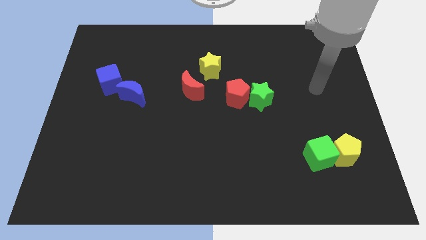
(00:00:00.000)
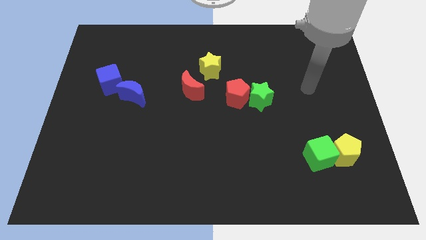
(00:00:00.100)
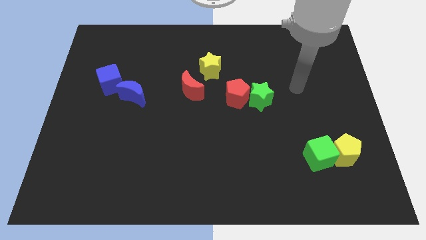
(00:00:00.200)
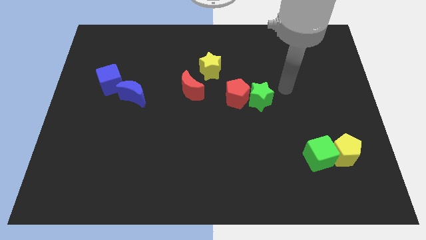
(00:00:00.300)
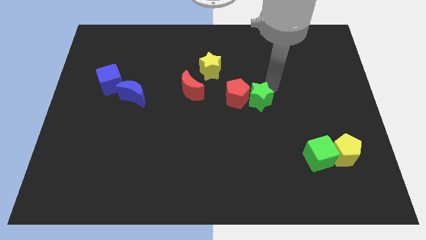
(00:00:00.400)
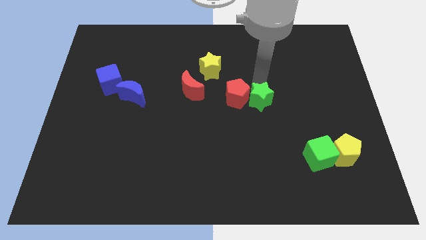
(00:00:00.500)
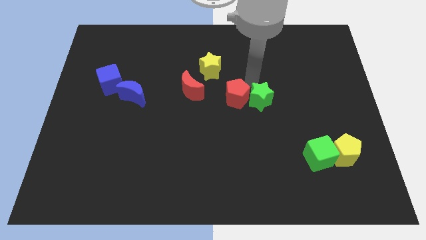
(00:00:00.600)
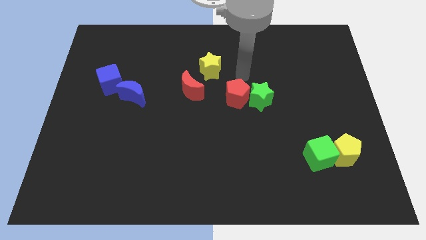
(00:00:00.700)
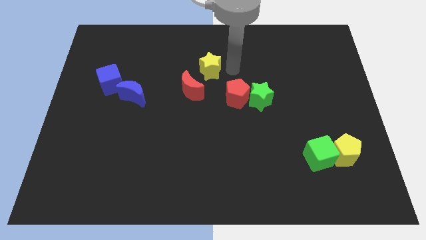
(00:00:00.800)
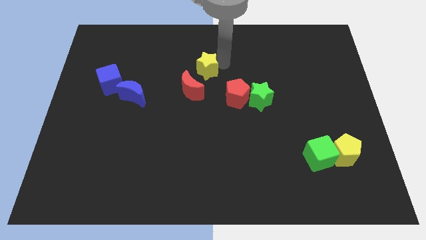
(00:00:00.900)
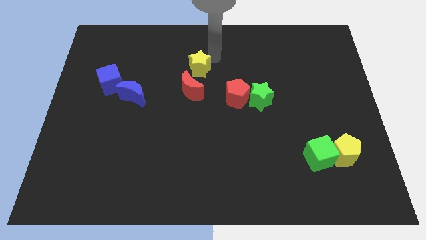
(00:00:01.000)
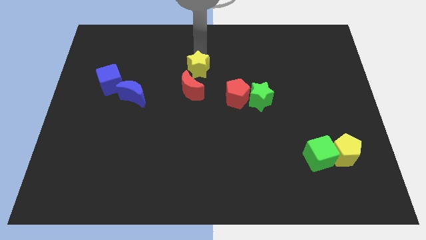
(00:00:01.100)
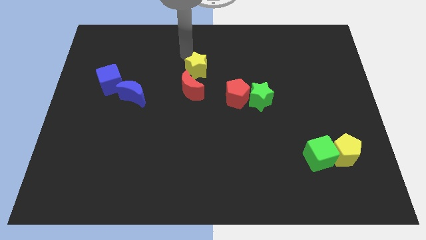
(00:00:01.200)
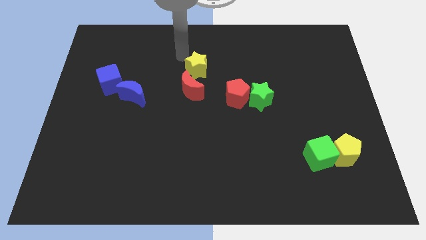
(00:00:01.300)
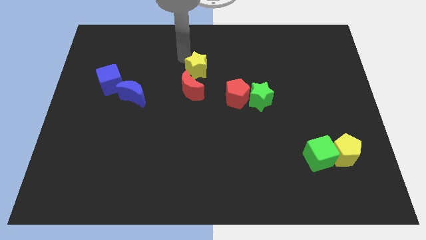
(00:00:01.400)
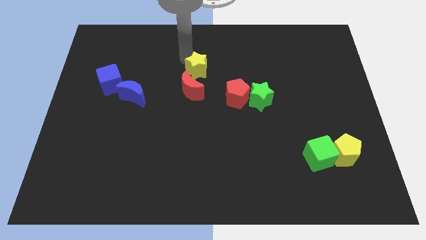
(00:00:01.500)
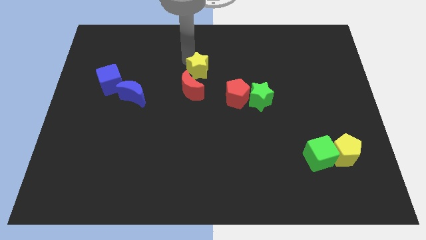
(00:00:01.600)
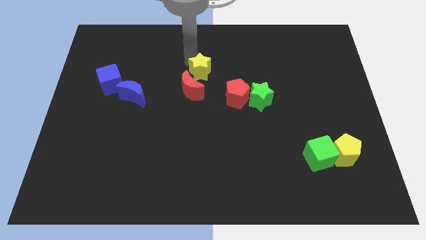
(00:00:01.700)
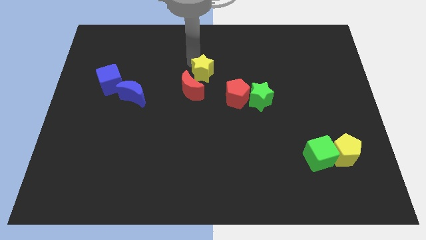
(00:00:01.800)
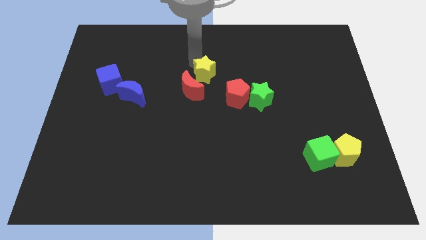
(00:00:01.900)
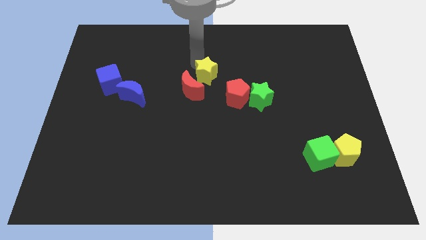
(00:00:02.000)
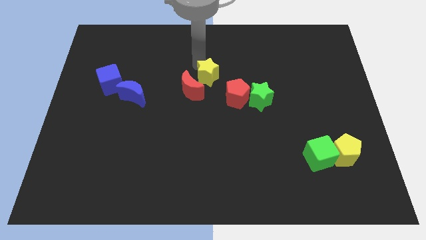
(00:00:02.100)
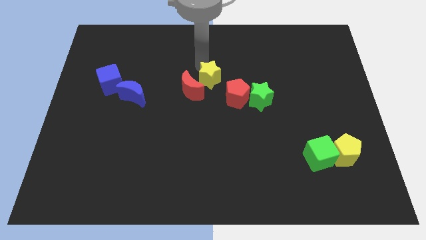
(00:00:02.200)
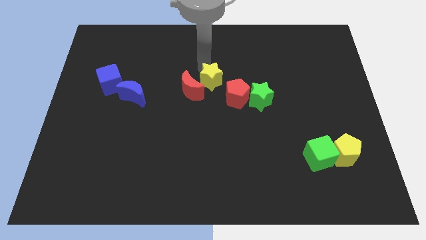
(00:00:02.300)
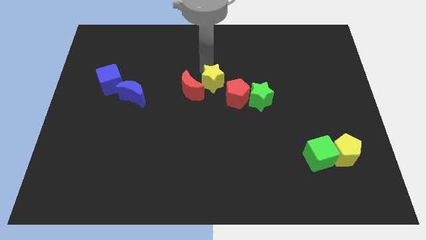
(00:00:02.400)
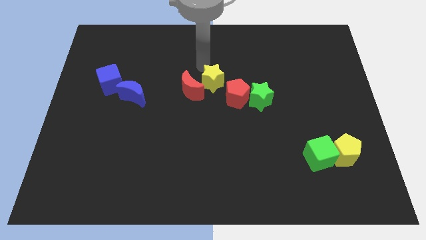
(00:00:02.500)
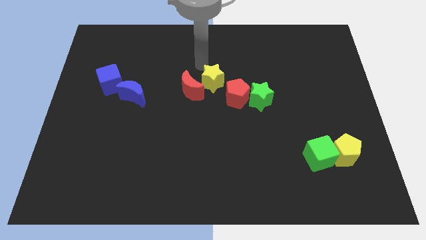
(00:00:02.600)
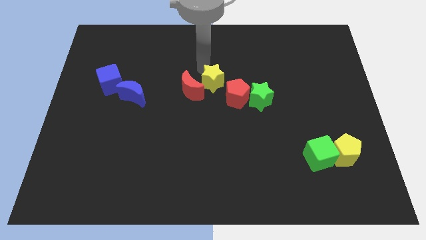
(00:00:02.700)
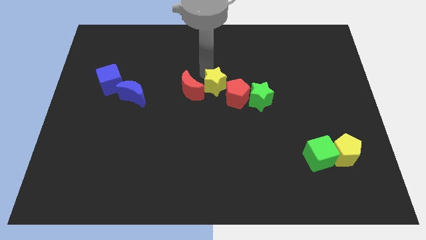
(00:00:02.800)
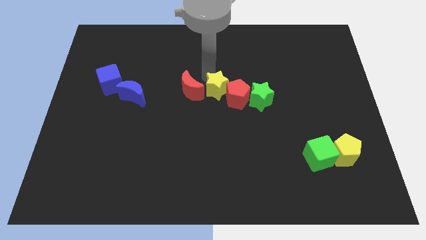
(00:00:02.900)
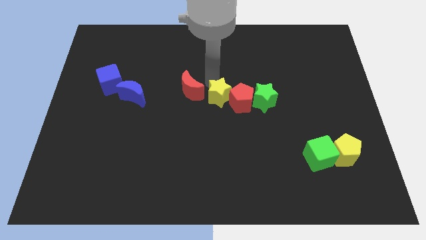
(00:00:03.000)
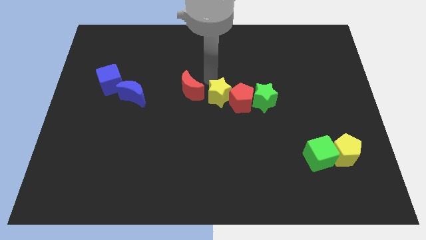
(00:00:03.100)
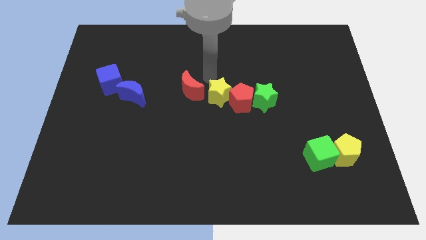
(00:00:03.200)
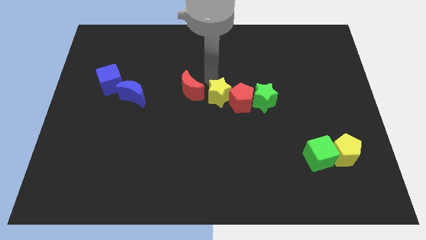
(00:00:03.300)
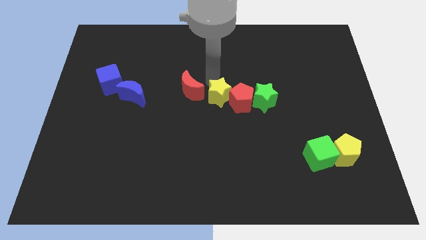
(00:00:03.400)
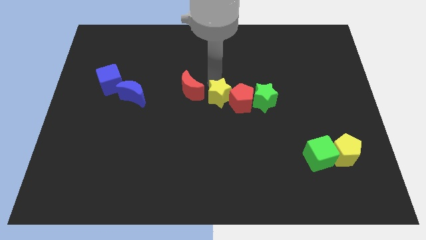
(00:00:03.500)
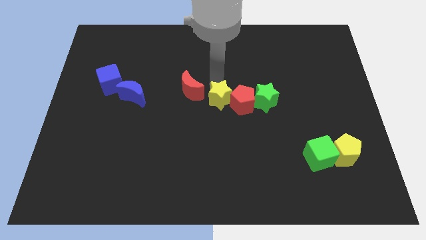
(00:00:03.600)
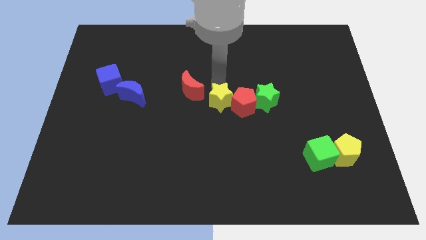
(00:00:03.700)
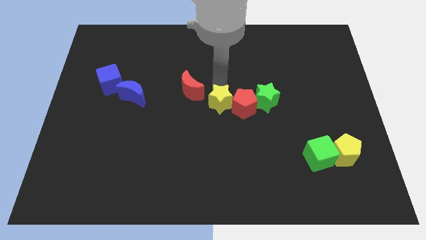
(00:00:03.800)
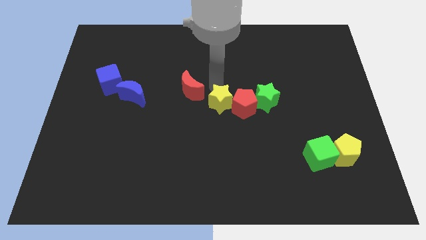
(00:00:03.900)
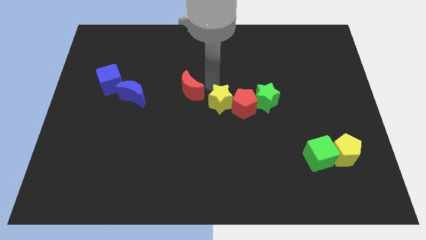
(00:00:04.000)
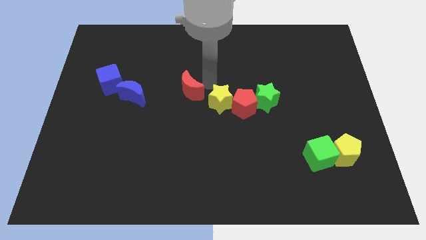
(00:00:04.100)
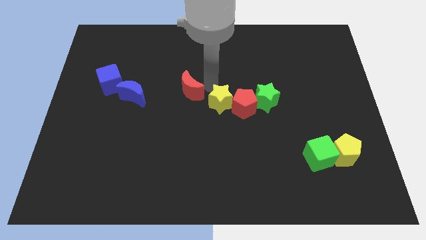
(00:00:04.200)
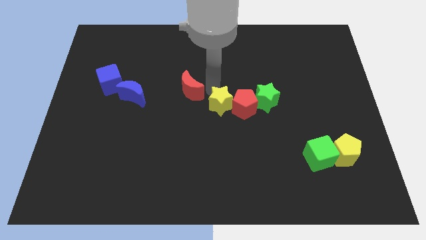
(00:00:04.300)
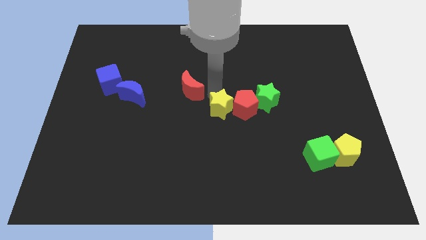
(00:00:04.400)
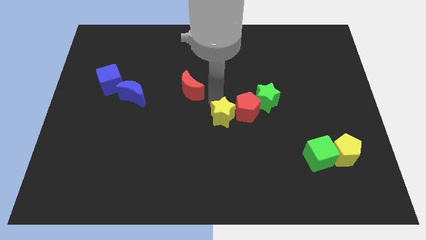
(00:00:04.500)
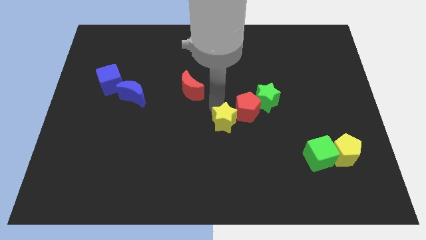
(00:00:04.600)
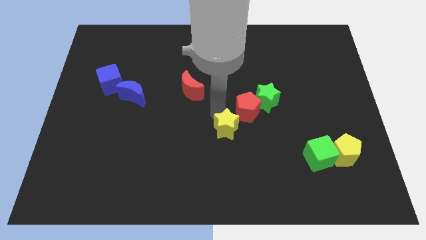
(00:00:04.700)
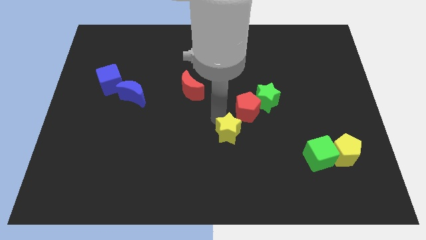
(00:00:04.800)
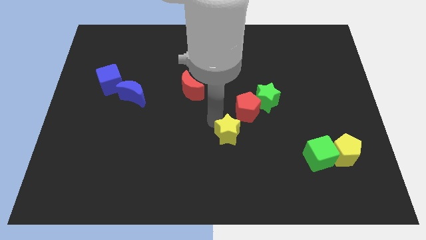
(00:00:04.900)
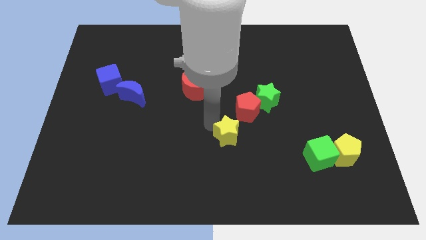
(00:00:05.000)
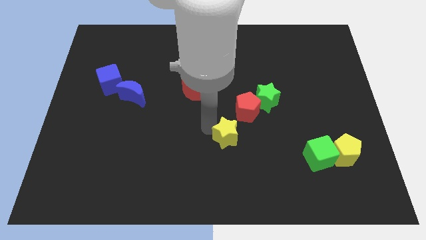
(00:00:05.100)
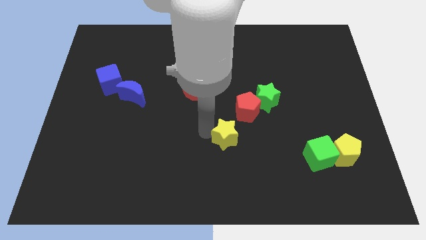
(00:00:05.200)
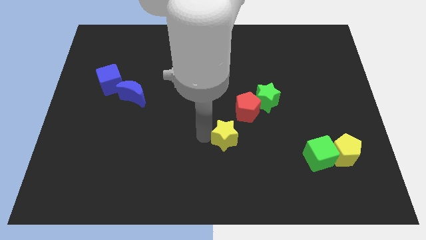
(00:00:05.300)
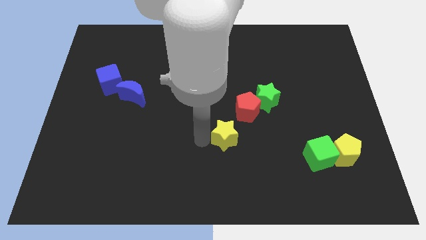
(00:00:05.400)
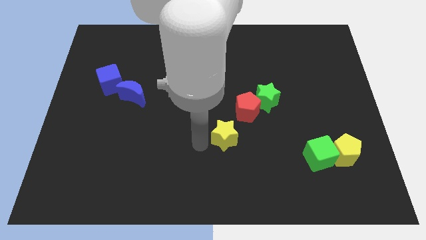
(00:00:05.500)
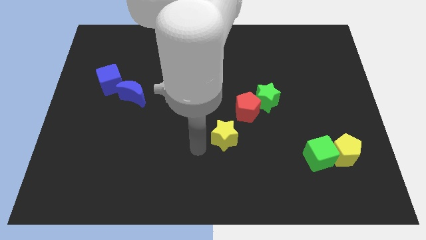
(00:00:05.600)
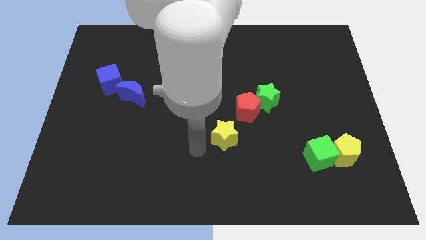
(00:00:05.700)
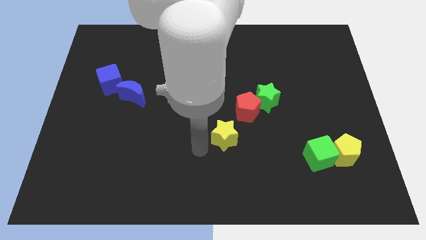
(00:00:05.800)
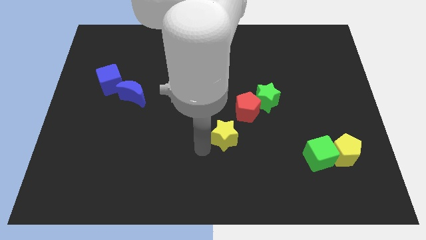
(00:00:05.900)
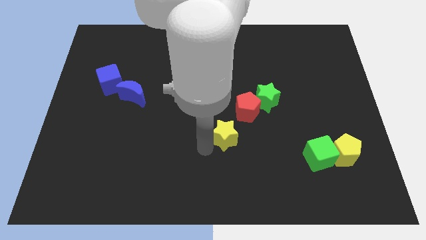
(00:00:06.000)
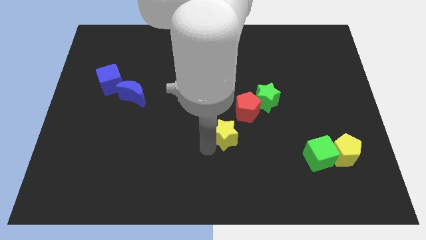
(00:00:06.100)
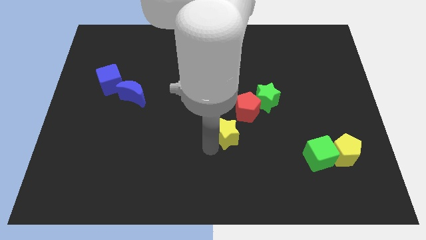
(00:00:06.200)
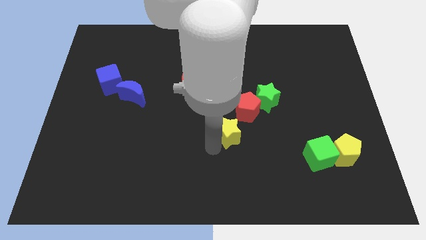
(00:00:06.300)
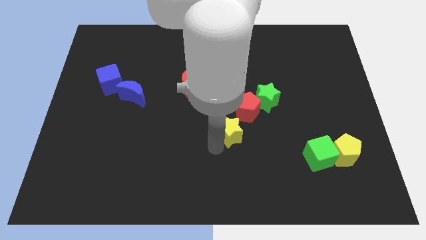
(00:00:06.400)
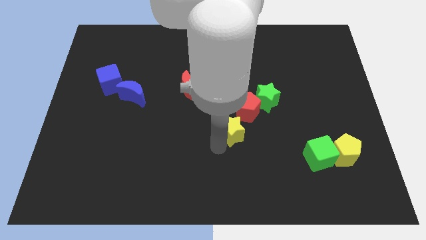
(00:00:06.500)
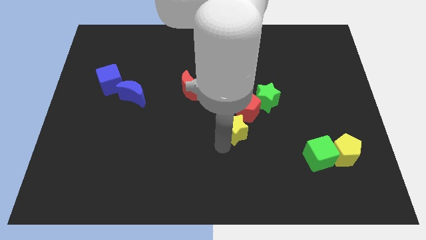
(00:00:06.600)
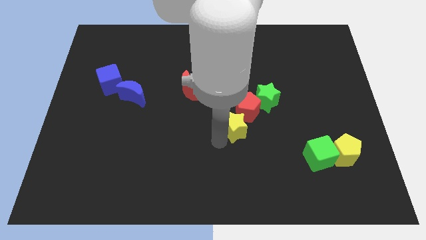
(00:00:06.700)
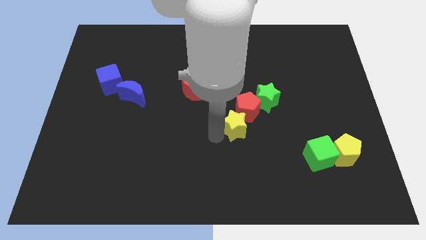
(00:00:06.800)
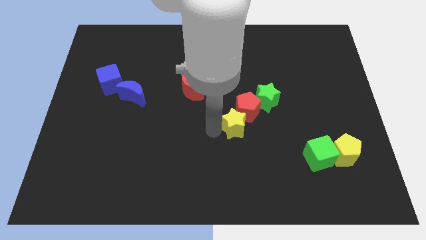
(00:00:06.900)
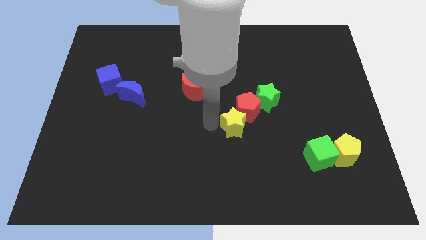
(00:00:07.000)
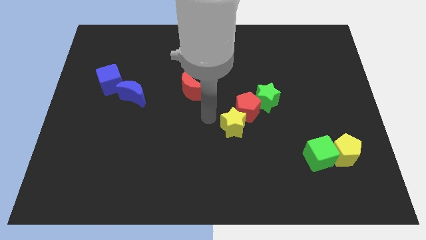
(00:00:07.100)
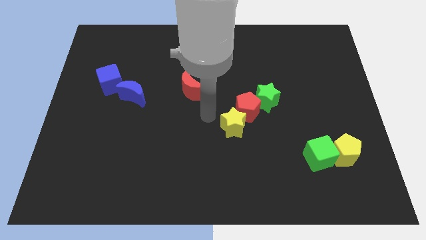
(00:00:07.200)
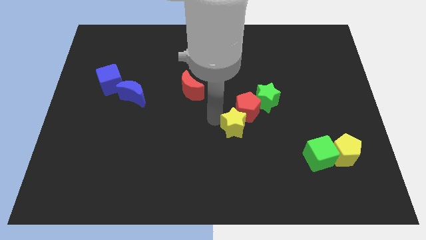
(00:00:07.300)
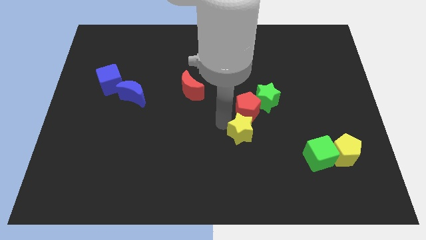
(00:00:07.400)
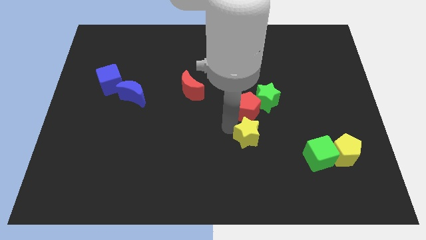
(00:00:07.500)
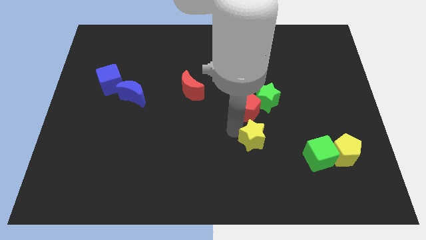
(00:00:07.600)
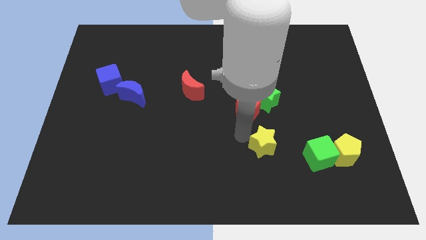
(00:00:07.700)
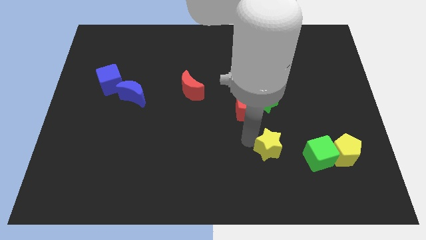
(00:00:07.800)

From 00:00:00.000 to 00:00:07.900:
move the yellow star to the left of the yellow pentagon

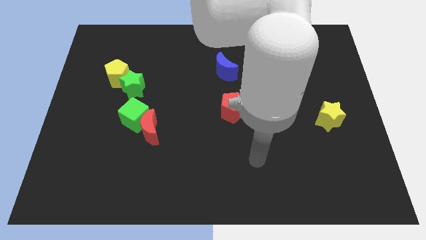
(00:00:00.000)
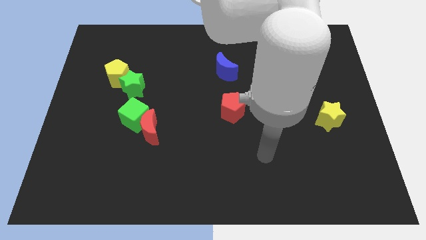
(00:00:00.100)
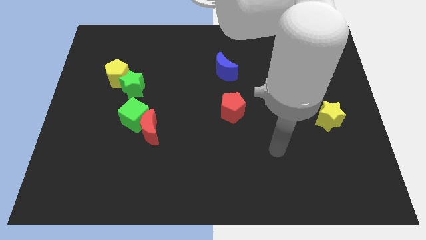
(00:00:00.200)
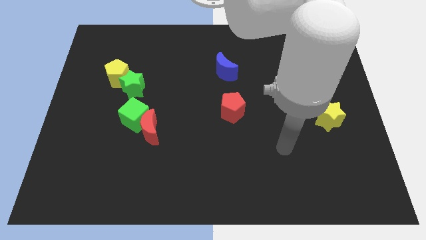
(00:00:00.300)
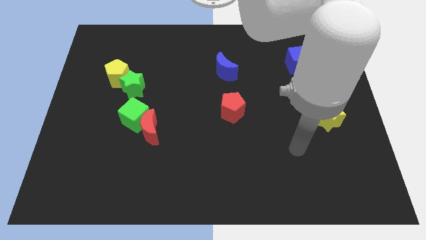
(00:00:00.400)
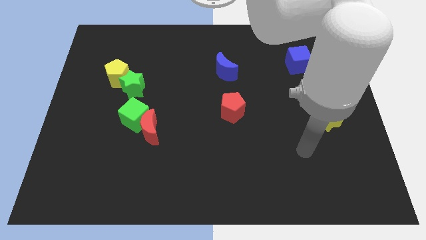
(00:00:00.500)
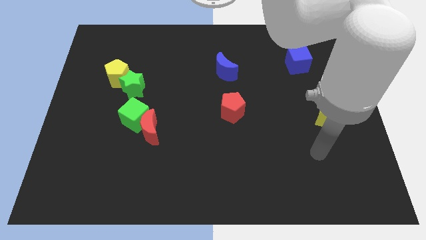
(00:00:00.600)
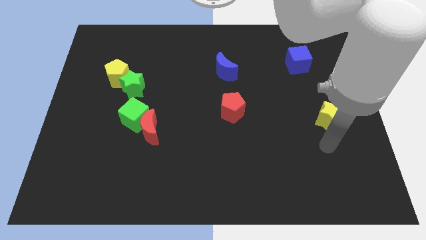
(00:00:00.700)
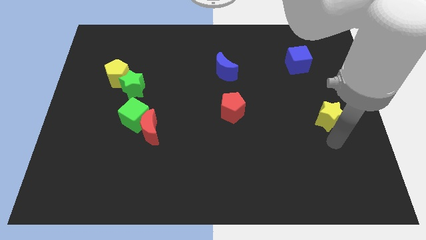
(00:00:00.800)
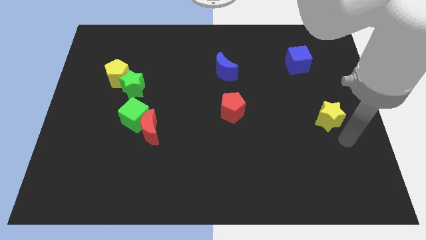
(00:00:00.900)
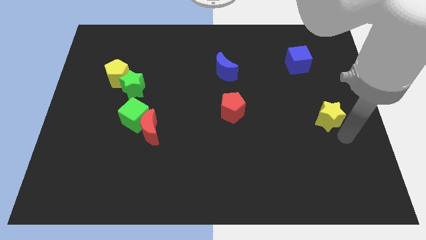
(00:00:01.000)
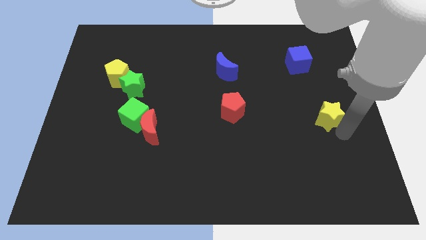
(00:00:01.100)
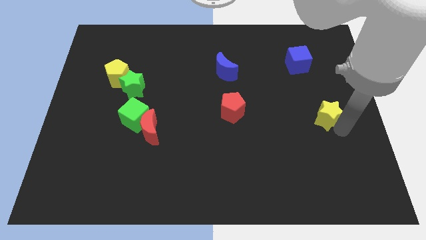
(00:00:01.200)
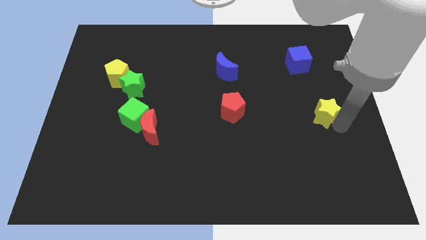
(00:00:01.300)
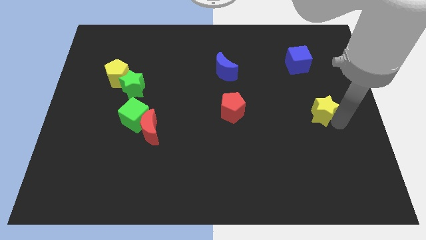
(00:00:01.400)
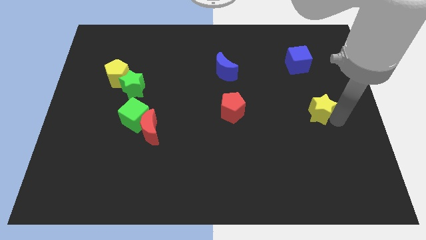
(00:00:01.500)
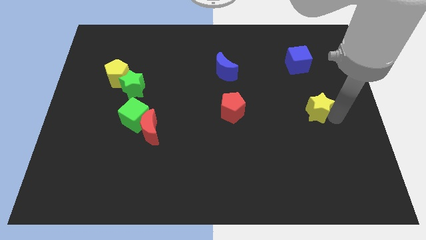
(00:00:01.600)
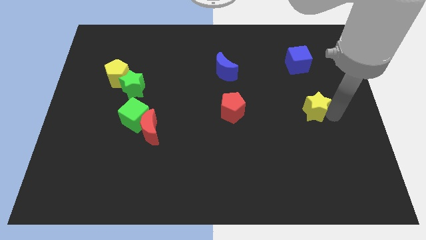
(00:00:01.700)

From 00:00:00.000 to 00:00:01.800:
slide the yellow star to the bottom side of the blue cube
